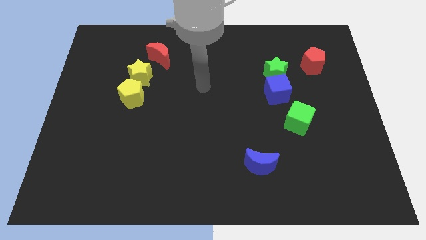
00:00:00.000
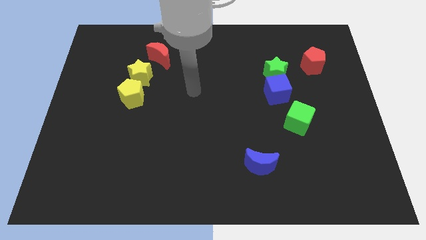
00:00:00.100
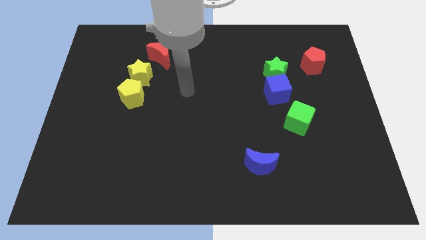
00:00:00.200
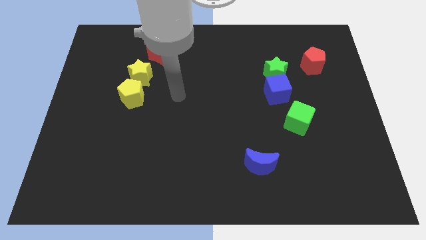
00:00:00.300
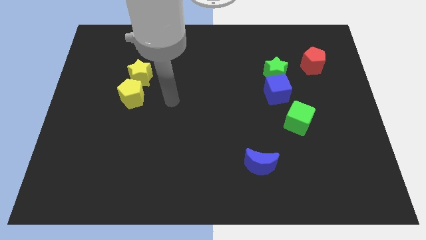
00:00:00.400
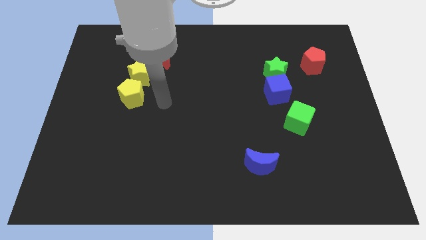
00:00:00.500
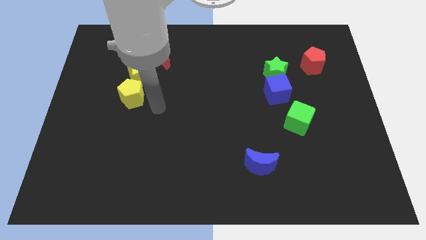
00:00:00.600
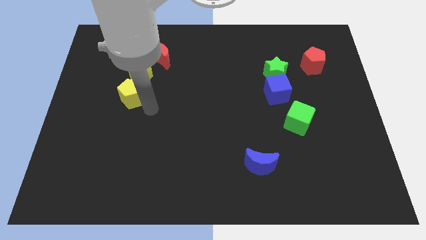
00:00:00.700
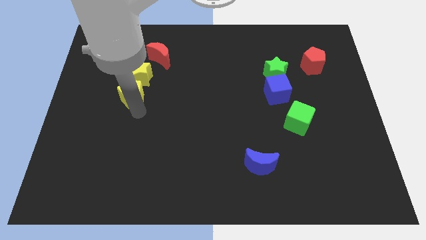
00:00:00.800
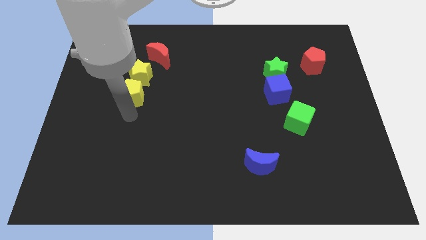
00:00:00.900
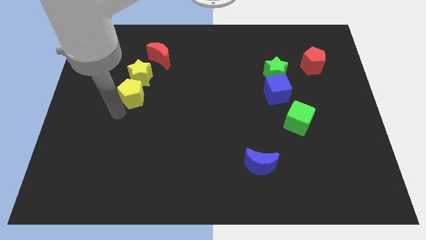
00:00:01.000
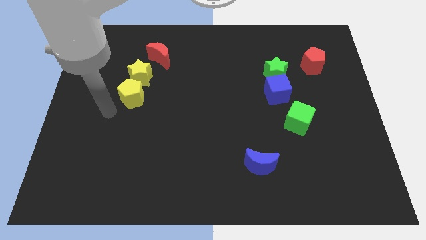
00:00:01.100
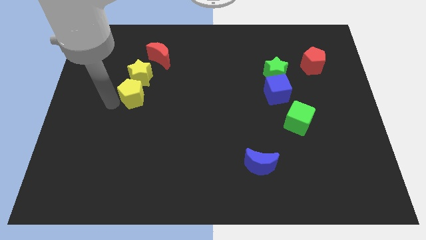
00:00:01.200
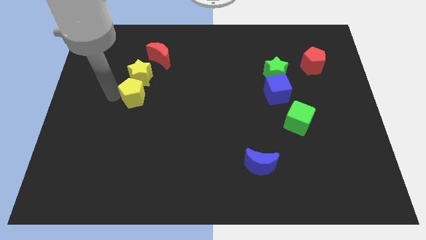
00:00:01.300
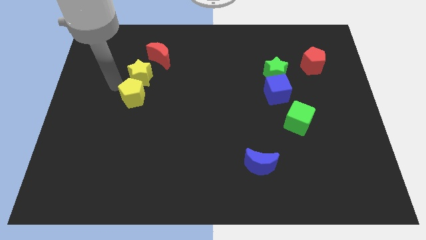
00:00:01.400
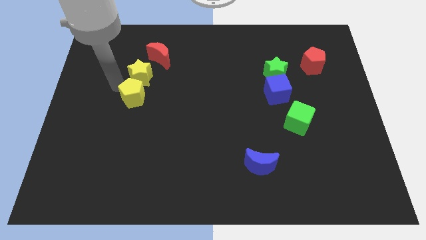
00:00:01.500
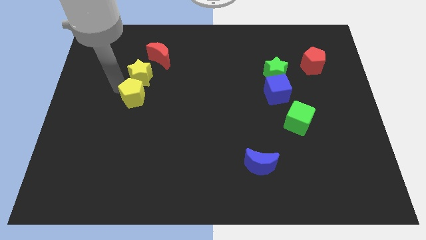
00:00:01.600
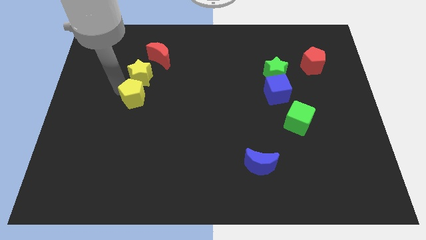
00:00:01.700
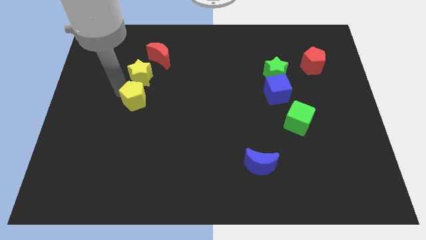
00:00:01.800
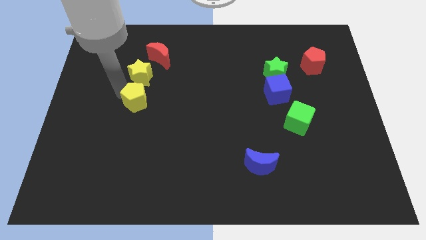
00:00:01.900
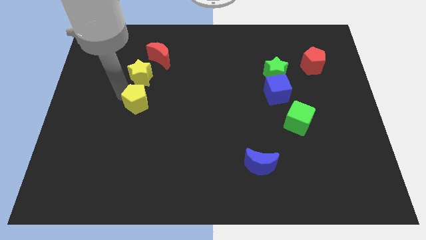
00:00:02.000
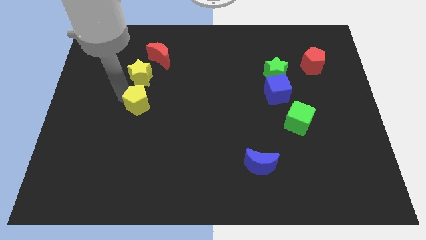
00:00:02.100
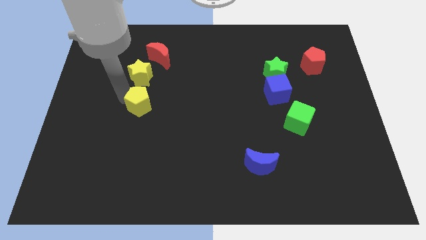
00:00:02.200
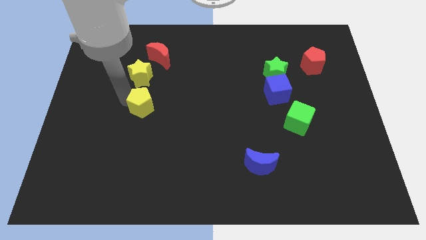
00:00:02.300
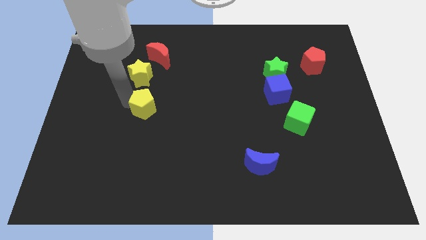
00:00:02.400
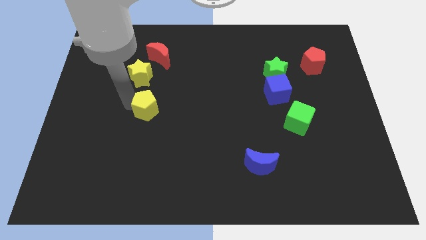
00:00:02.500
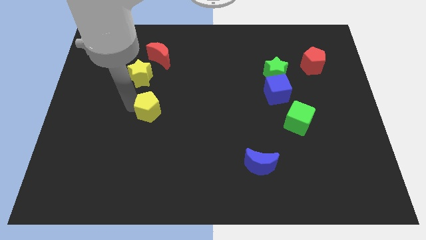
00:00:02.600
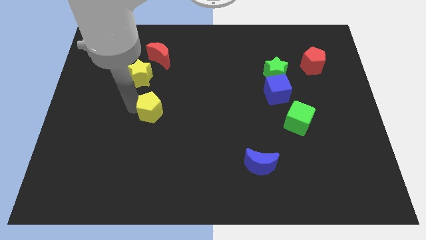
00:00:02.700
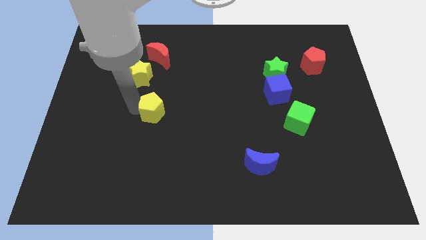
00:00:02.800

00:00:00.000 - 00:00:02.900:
move the yellow pentagon slightly downwards and to the right

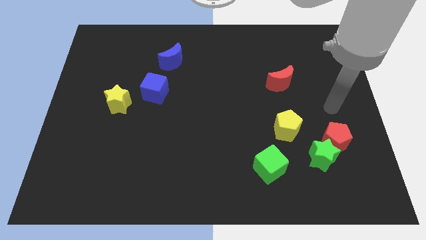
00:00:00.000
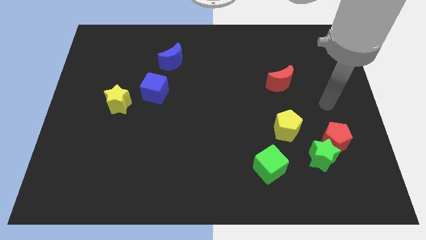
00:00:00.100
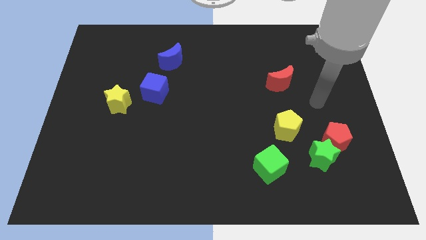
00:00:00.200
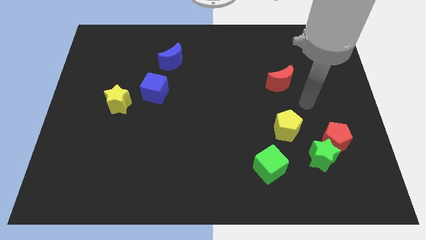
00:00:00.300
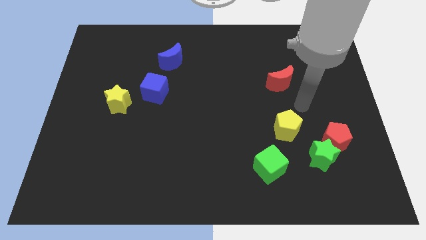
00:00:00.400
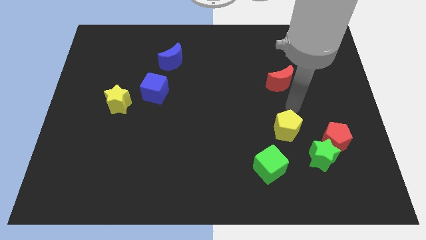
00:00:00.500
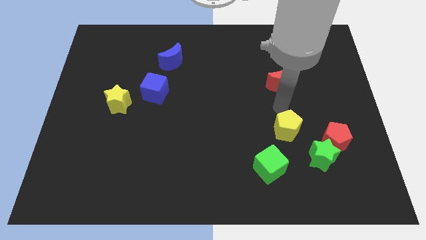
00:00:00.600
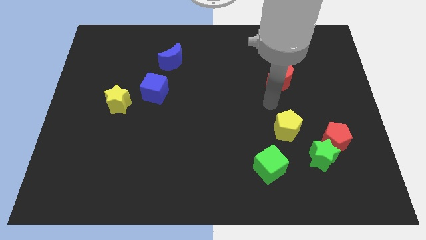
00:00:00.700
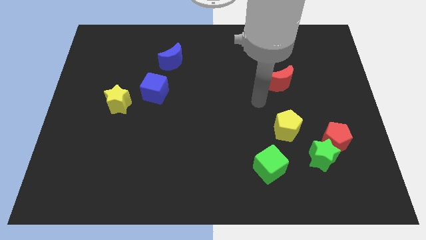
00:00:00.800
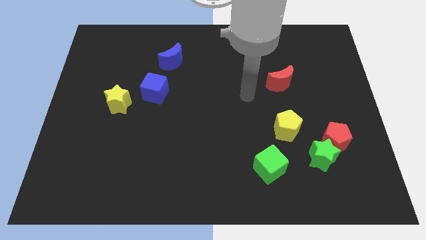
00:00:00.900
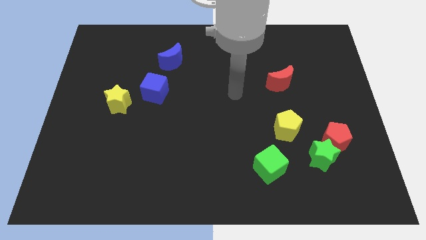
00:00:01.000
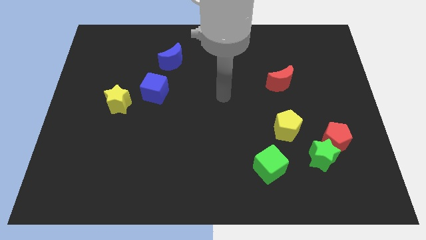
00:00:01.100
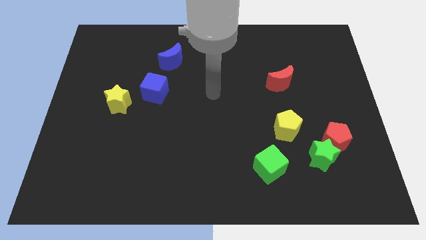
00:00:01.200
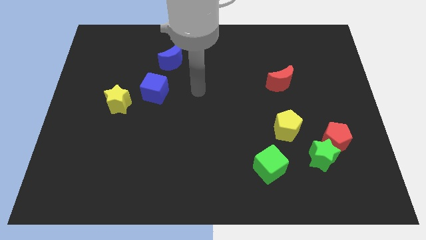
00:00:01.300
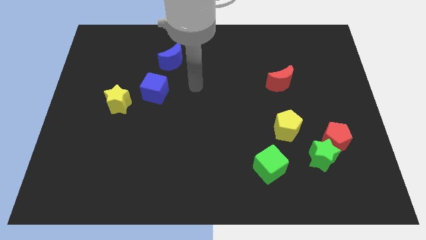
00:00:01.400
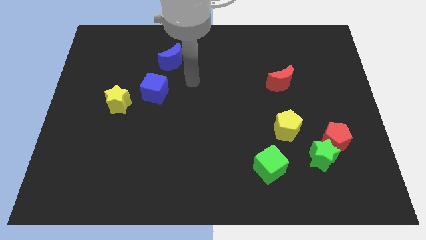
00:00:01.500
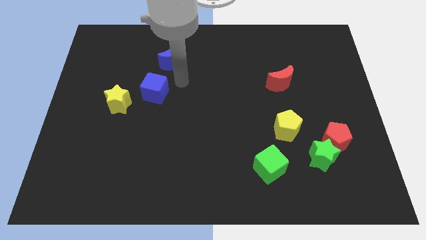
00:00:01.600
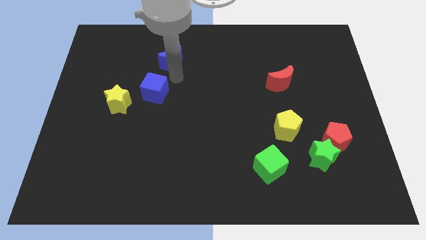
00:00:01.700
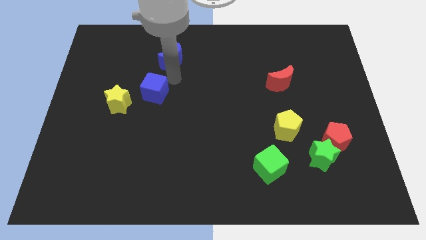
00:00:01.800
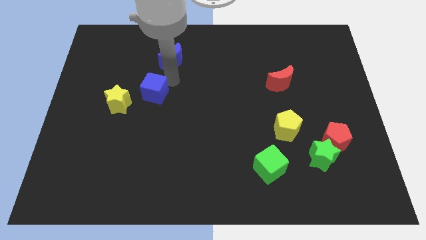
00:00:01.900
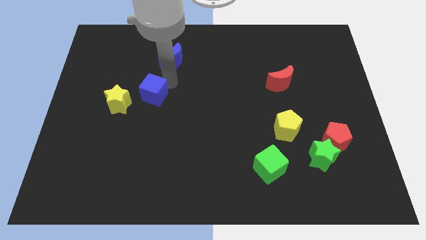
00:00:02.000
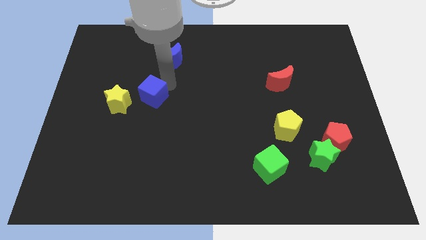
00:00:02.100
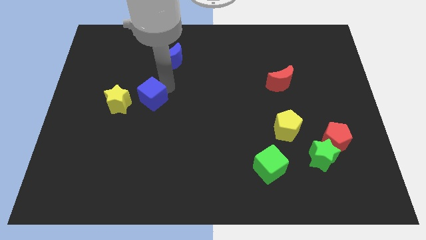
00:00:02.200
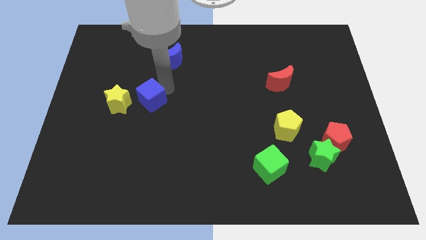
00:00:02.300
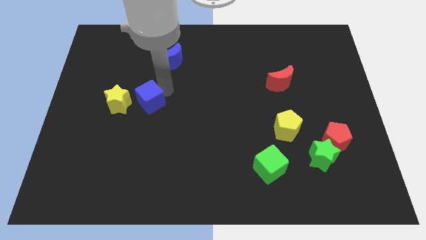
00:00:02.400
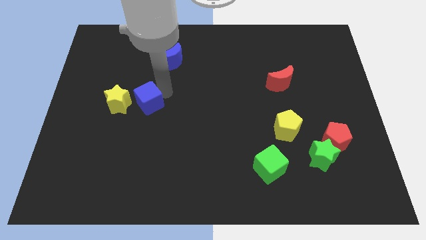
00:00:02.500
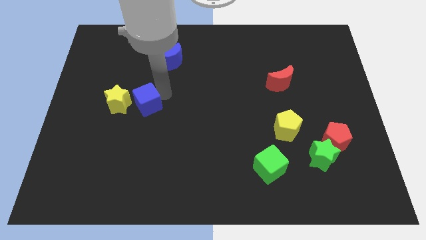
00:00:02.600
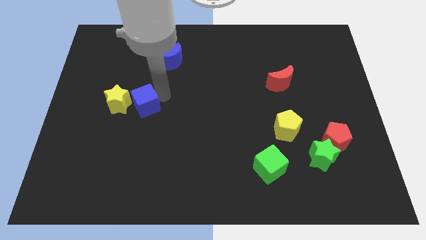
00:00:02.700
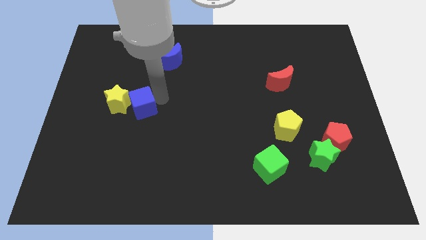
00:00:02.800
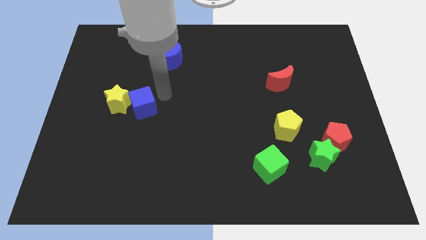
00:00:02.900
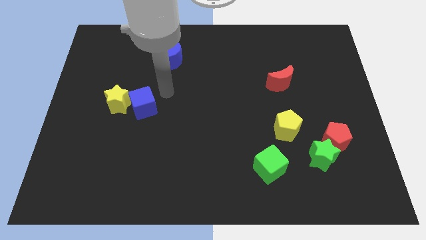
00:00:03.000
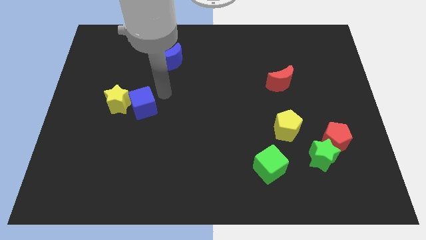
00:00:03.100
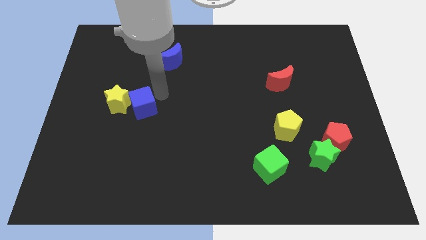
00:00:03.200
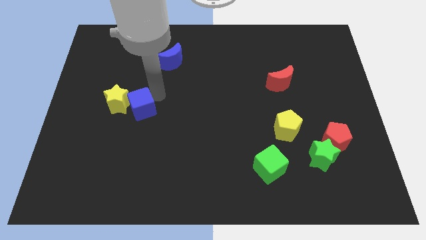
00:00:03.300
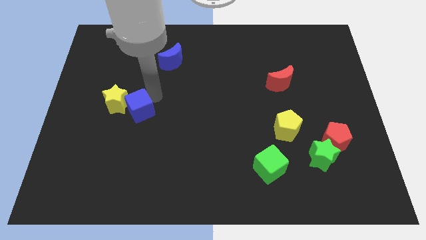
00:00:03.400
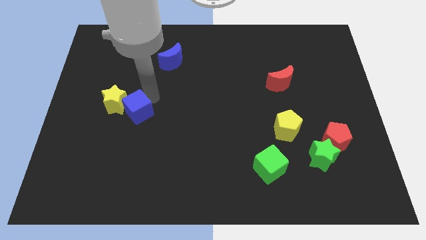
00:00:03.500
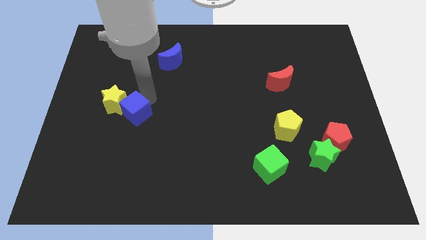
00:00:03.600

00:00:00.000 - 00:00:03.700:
move the blue cube a bit downwards and then left

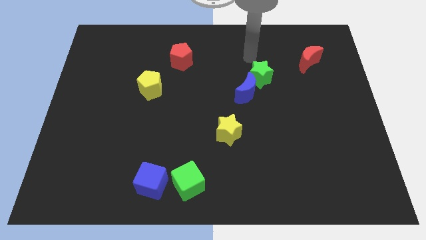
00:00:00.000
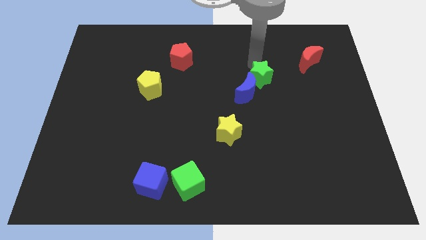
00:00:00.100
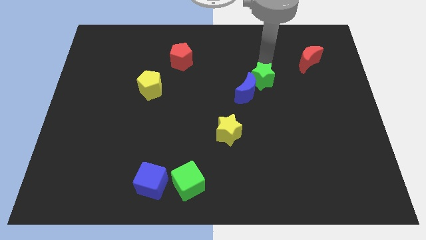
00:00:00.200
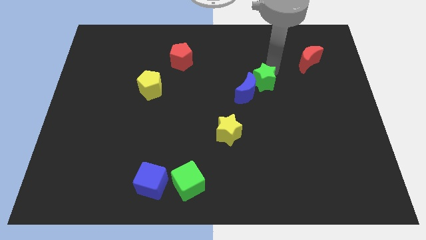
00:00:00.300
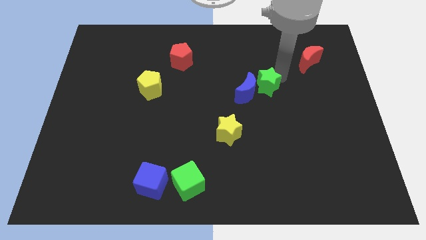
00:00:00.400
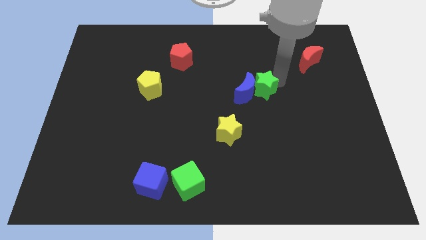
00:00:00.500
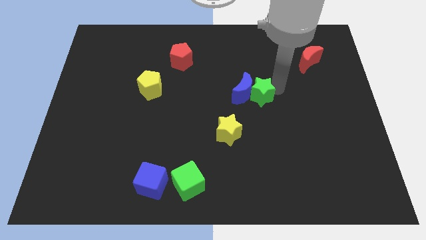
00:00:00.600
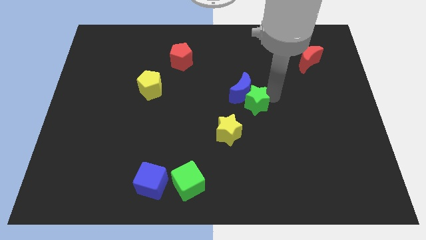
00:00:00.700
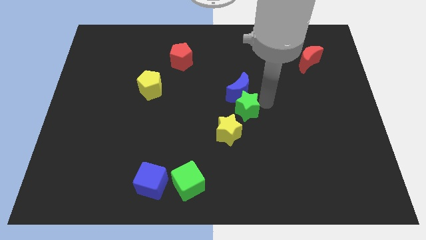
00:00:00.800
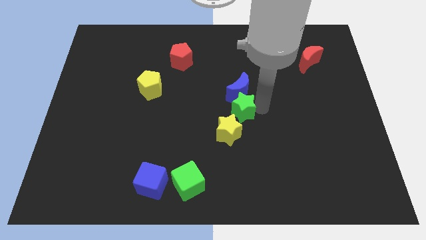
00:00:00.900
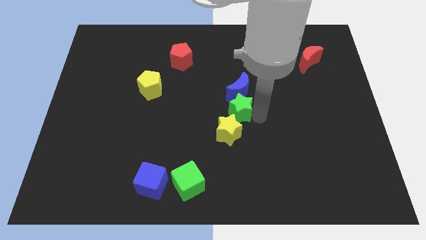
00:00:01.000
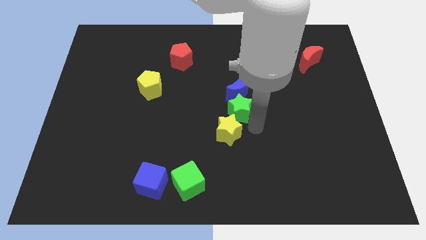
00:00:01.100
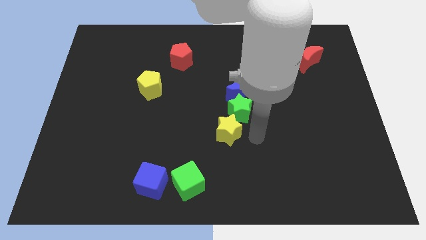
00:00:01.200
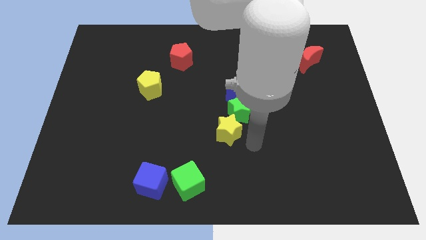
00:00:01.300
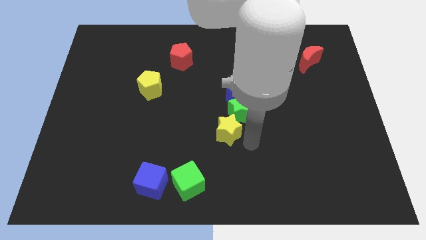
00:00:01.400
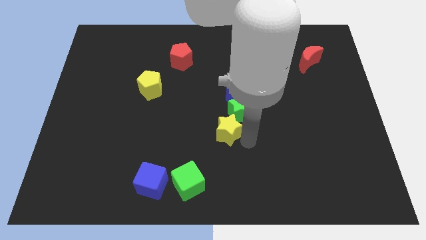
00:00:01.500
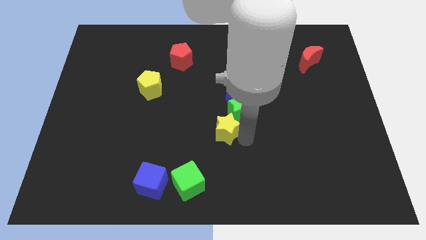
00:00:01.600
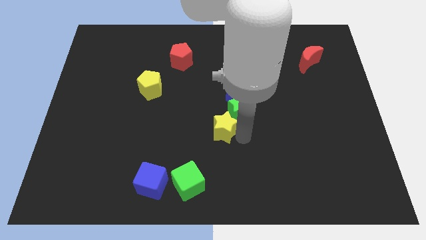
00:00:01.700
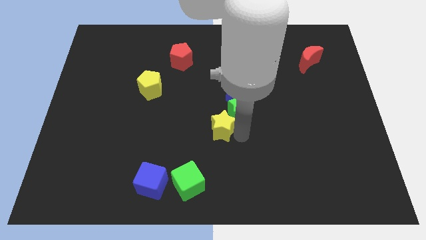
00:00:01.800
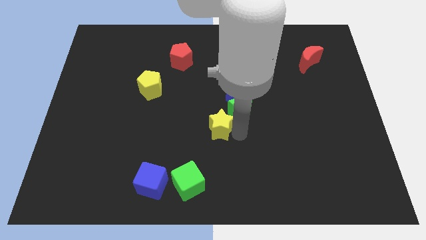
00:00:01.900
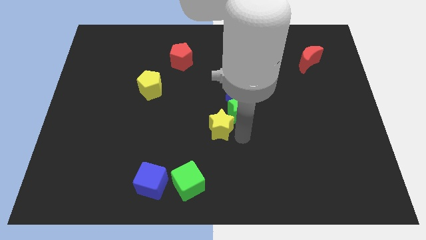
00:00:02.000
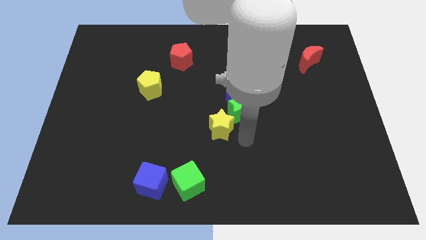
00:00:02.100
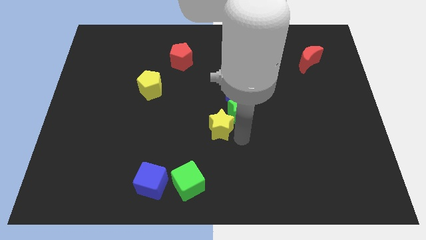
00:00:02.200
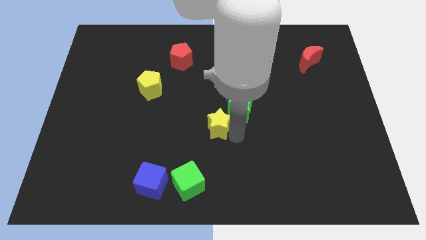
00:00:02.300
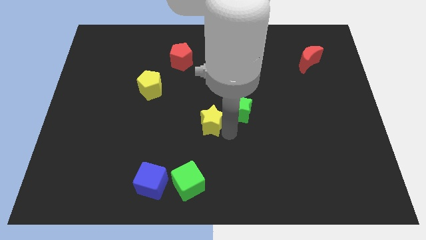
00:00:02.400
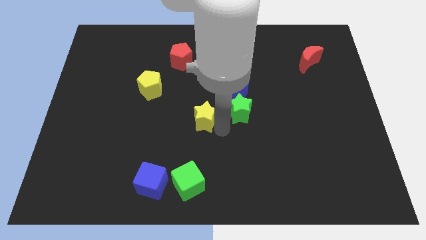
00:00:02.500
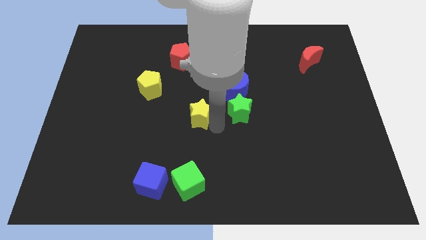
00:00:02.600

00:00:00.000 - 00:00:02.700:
move the yellow star a little upwards and left diagonally
